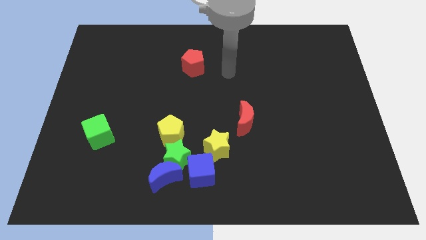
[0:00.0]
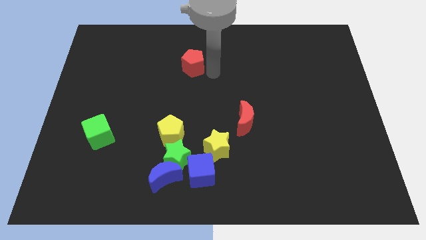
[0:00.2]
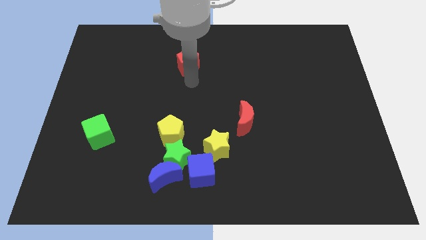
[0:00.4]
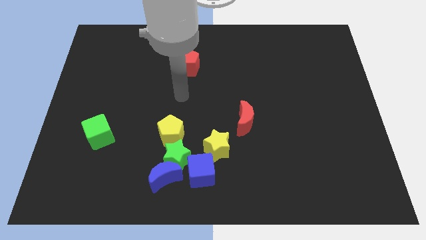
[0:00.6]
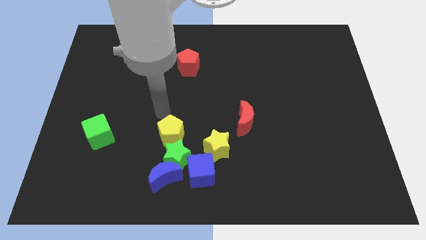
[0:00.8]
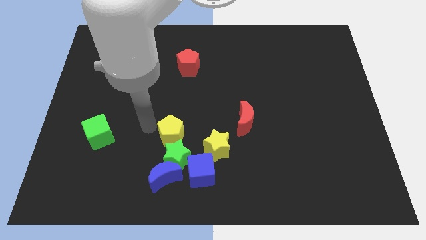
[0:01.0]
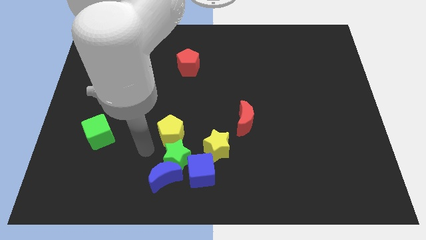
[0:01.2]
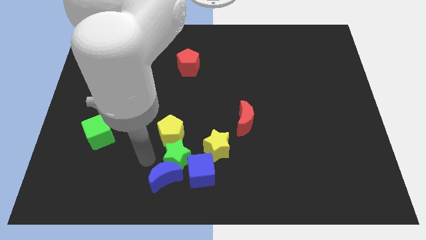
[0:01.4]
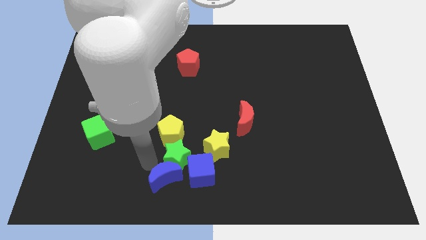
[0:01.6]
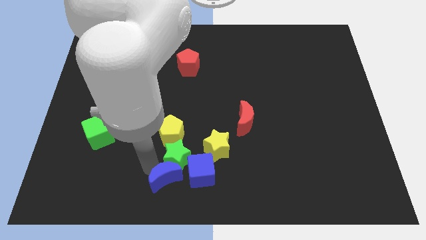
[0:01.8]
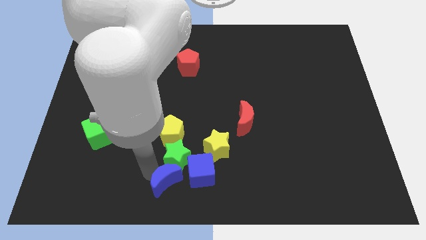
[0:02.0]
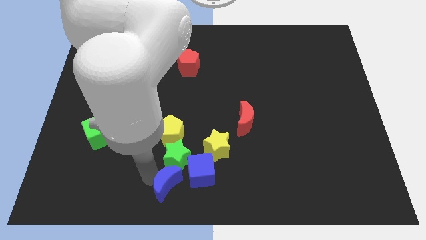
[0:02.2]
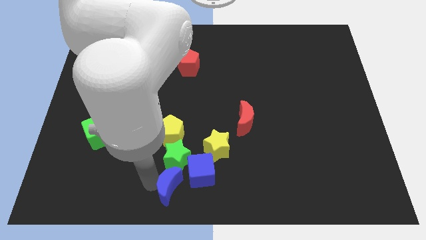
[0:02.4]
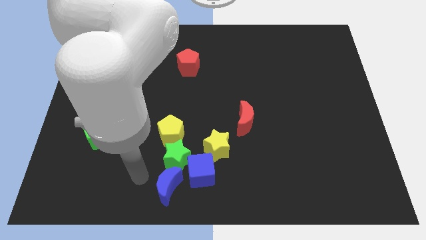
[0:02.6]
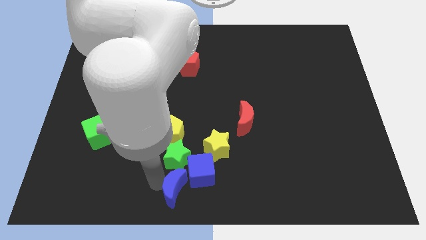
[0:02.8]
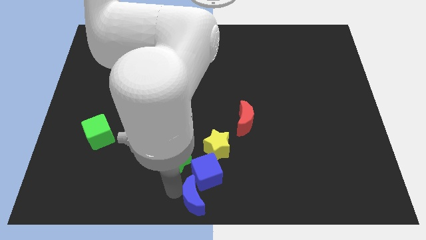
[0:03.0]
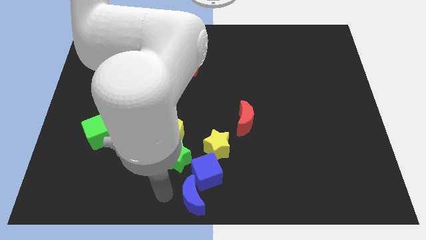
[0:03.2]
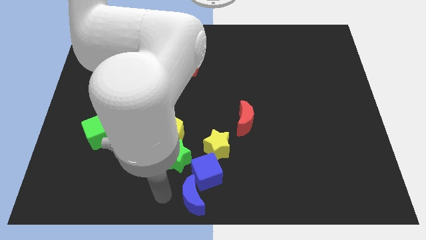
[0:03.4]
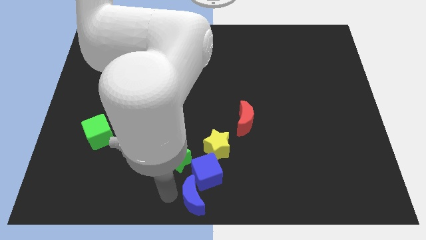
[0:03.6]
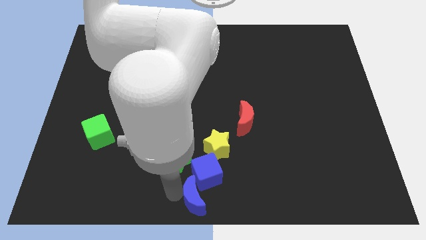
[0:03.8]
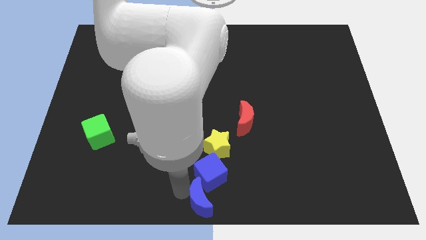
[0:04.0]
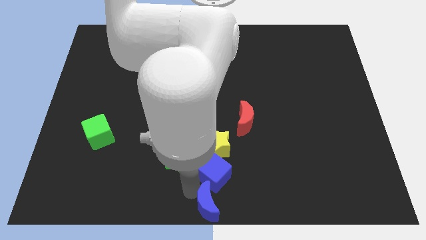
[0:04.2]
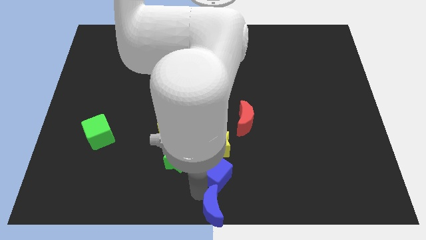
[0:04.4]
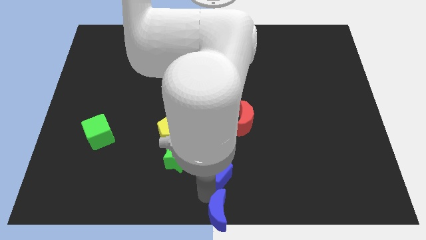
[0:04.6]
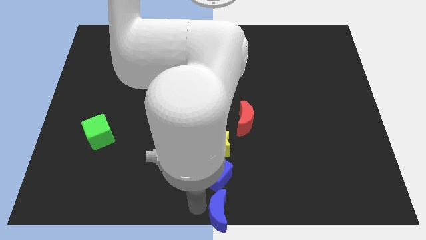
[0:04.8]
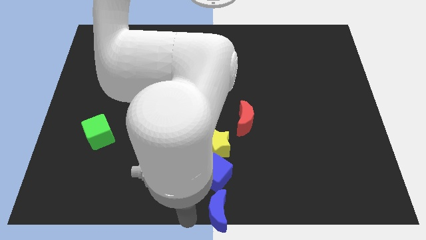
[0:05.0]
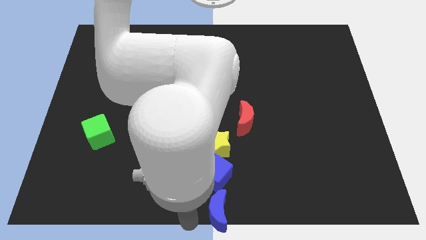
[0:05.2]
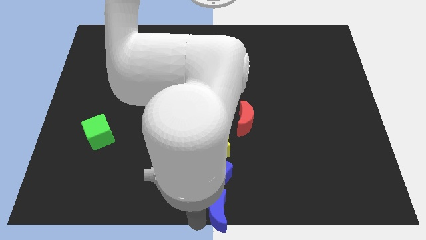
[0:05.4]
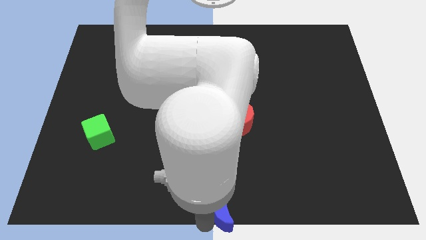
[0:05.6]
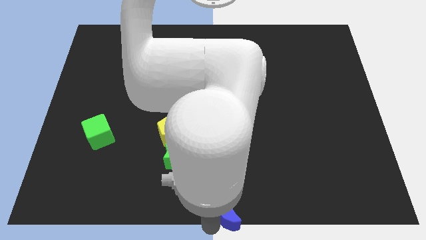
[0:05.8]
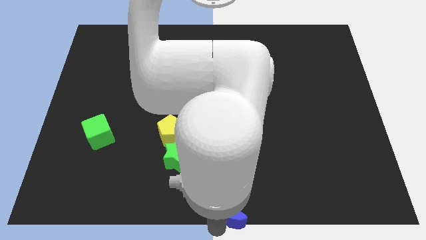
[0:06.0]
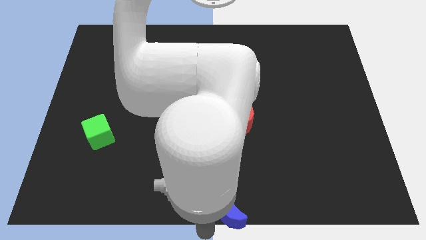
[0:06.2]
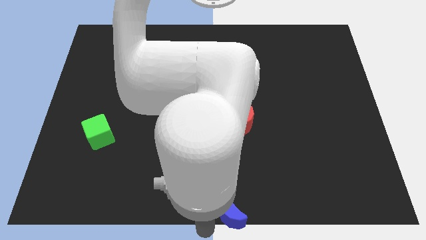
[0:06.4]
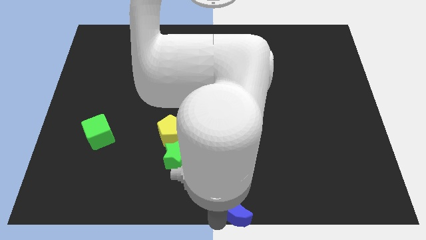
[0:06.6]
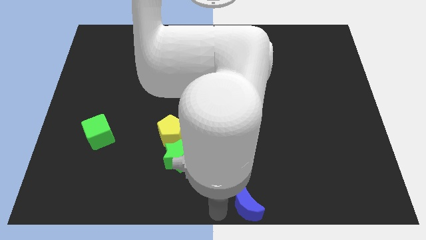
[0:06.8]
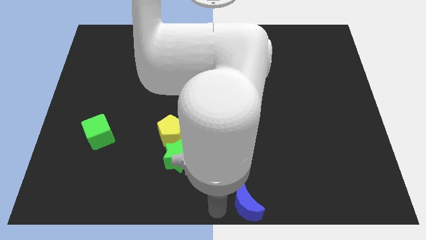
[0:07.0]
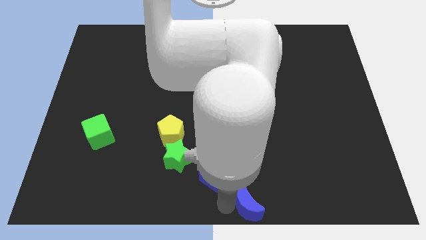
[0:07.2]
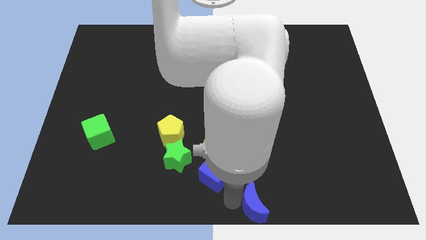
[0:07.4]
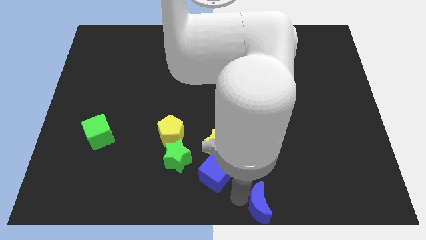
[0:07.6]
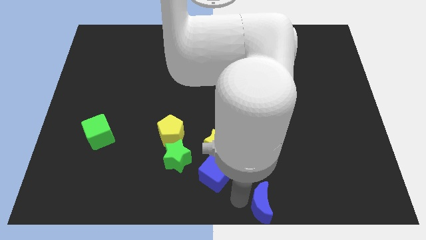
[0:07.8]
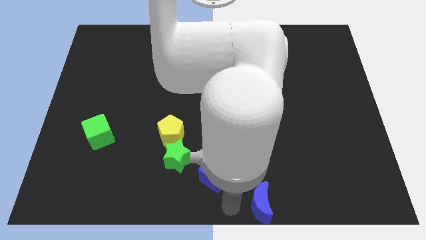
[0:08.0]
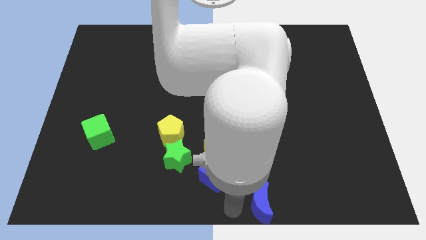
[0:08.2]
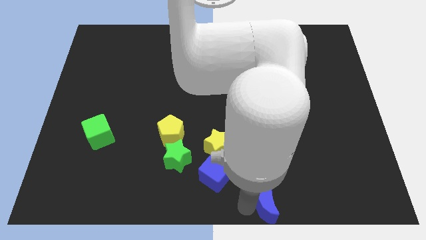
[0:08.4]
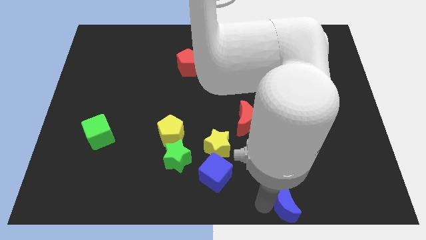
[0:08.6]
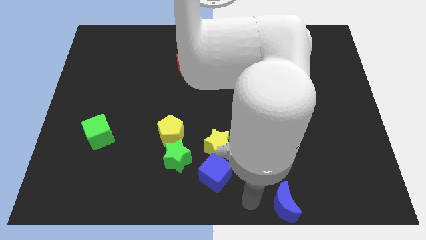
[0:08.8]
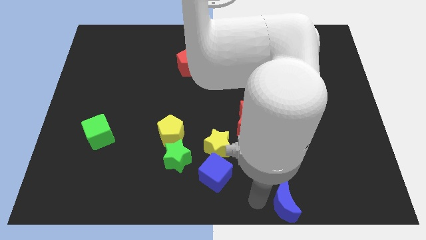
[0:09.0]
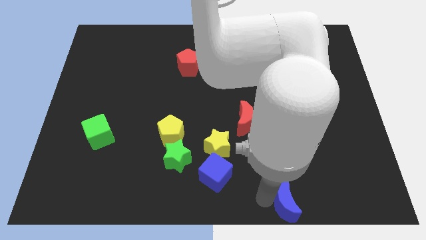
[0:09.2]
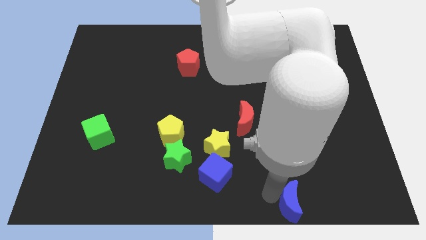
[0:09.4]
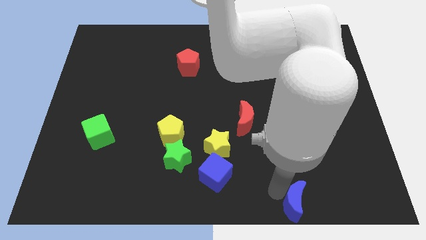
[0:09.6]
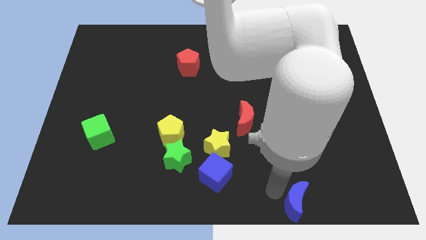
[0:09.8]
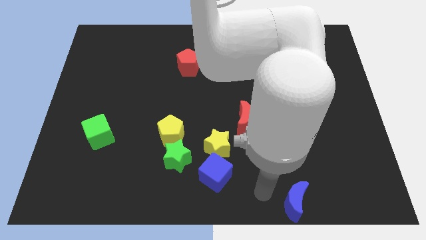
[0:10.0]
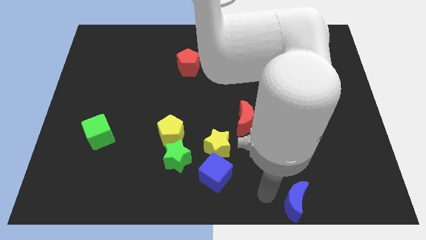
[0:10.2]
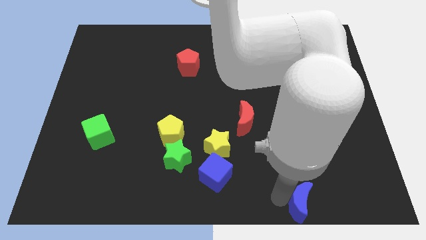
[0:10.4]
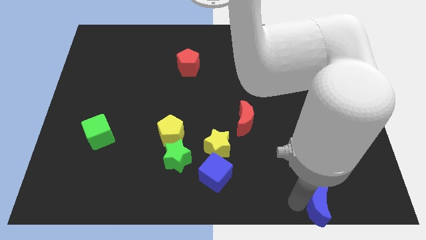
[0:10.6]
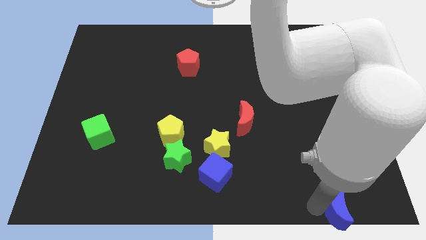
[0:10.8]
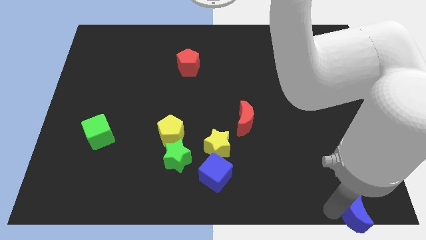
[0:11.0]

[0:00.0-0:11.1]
push the blue moon to the bottom right corner

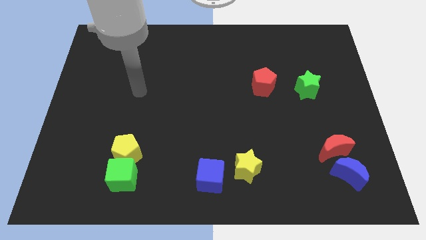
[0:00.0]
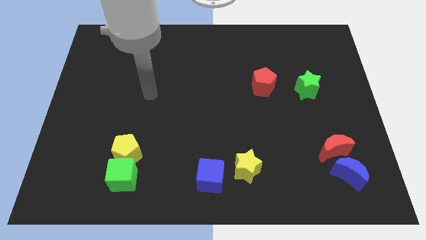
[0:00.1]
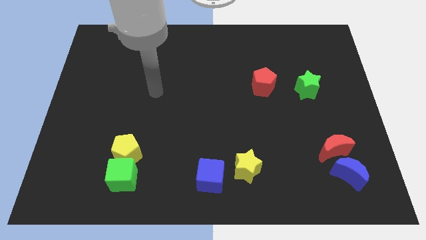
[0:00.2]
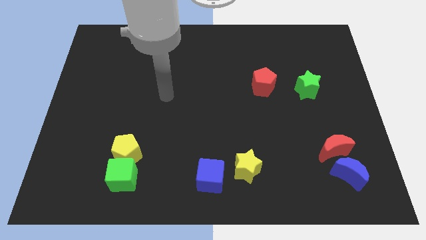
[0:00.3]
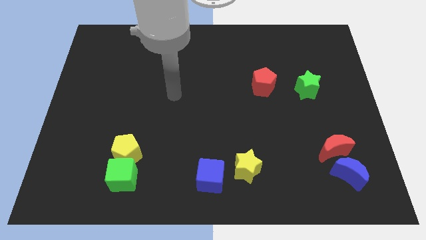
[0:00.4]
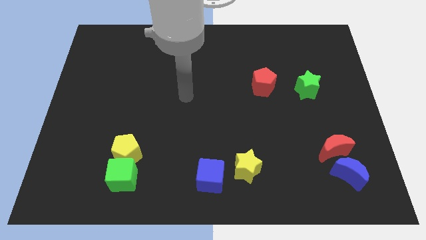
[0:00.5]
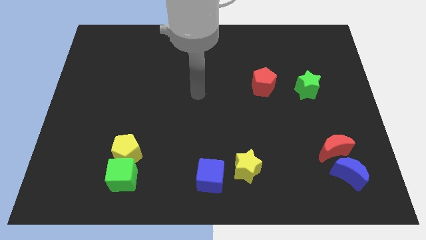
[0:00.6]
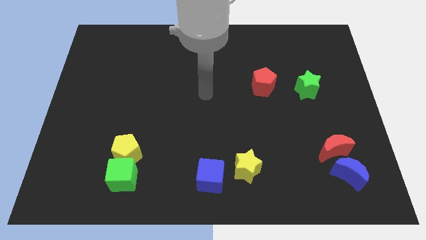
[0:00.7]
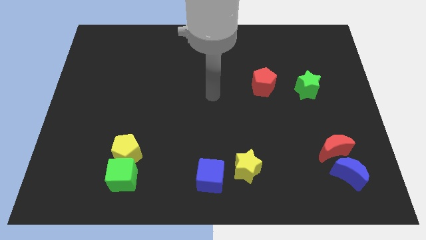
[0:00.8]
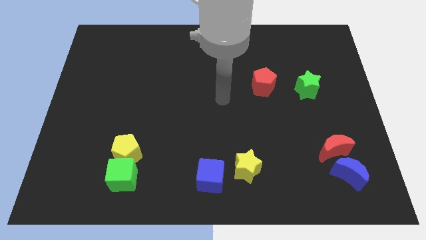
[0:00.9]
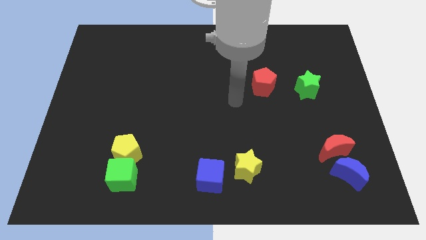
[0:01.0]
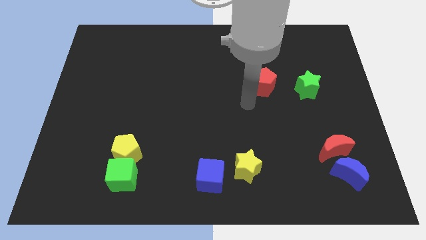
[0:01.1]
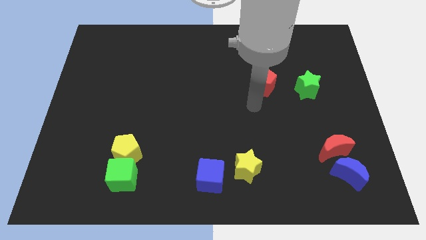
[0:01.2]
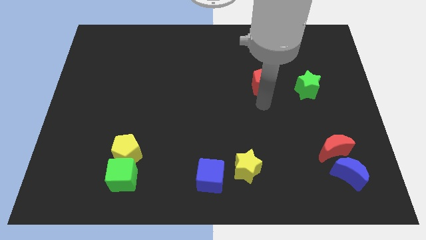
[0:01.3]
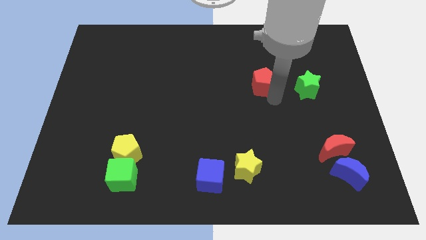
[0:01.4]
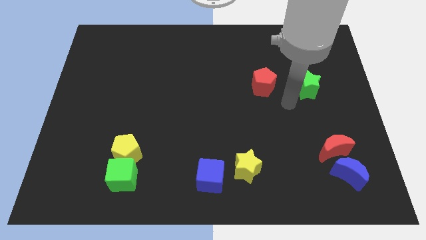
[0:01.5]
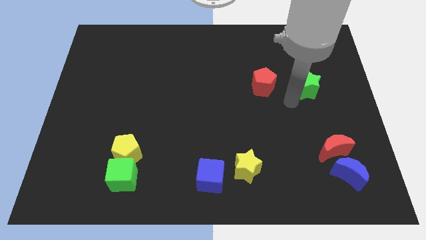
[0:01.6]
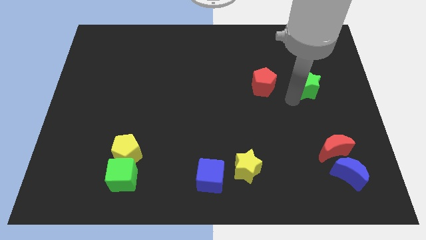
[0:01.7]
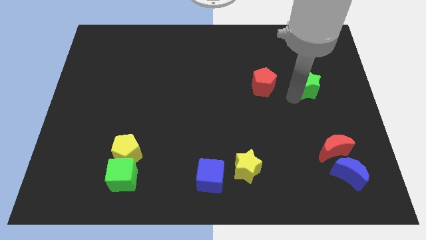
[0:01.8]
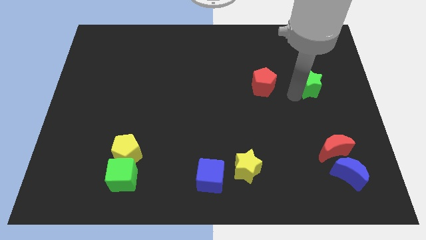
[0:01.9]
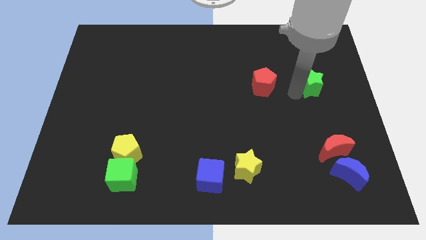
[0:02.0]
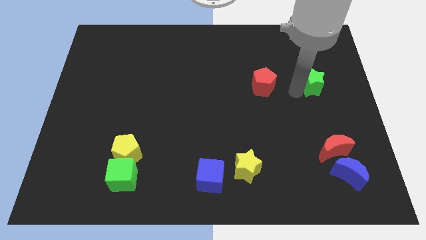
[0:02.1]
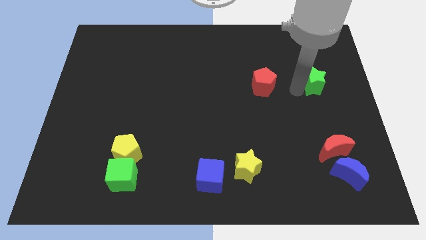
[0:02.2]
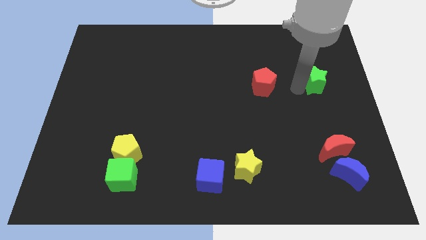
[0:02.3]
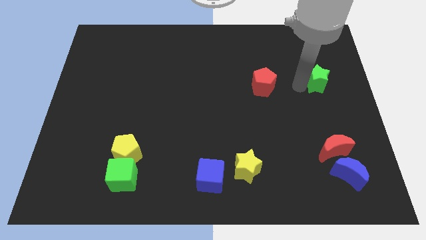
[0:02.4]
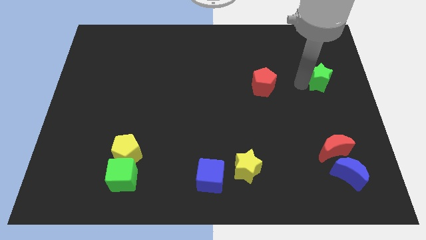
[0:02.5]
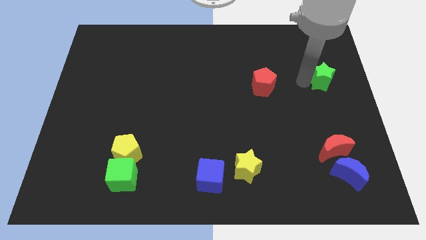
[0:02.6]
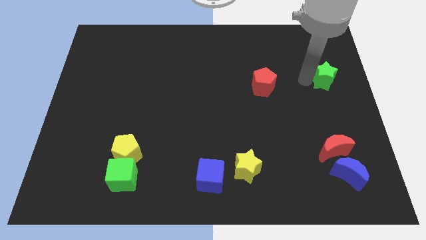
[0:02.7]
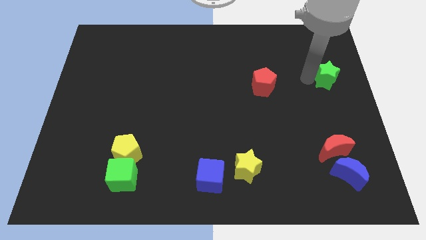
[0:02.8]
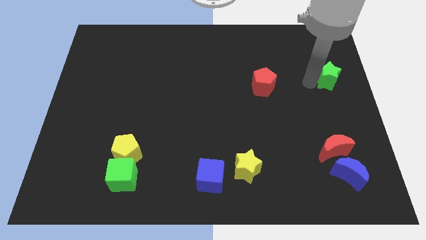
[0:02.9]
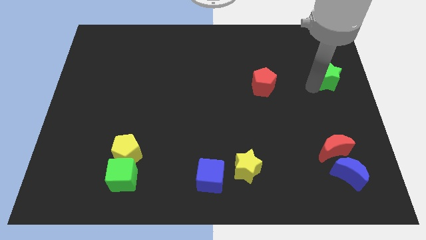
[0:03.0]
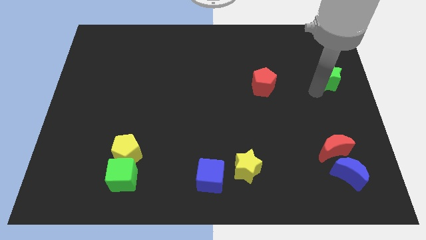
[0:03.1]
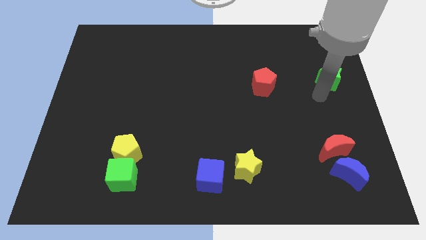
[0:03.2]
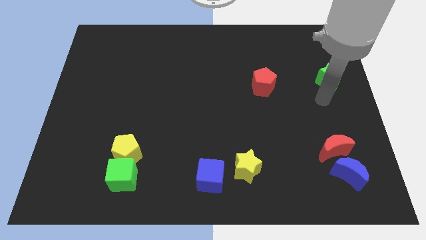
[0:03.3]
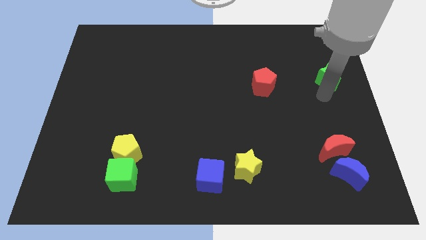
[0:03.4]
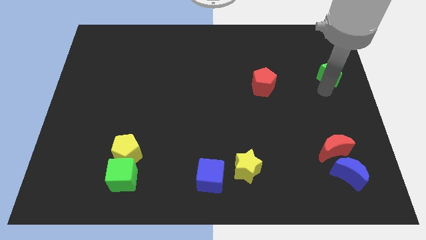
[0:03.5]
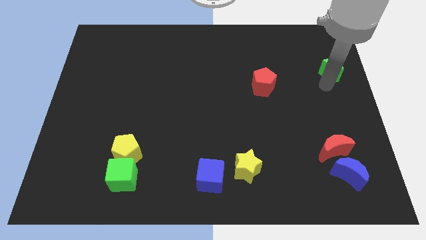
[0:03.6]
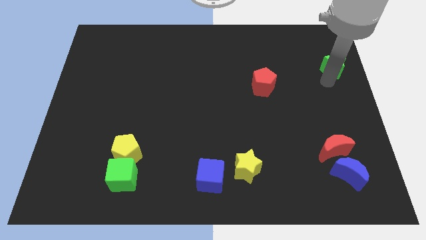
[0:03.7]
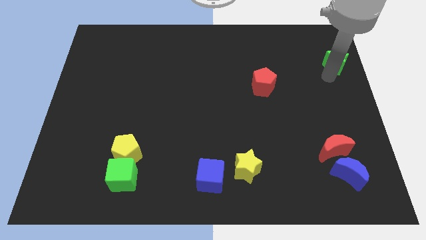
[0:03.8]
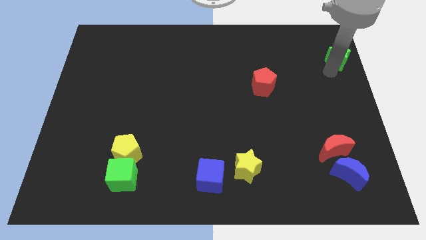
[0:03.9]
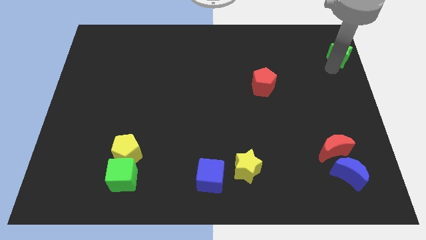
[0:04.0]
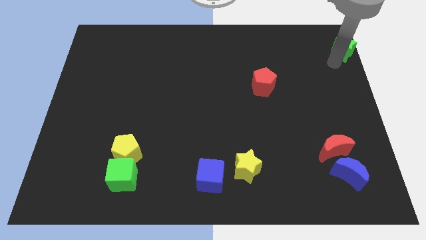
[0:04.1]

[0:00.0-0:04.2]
put the green star to the top right corner
